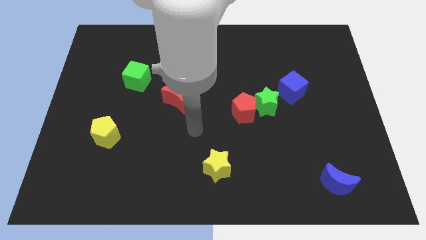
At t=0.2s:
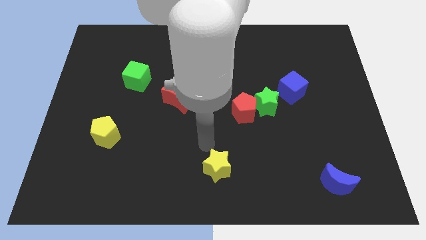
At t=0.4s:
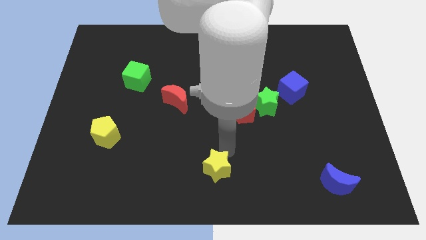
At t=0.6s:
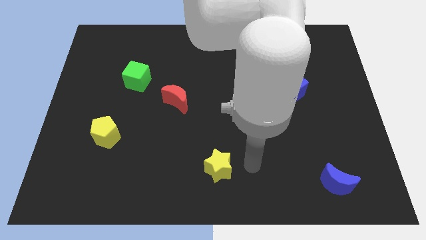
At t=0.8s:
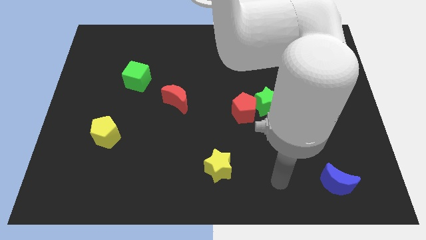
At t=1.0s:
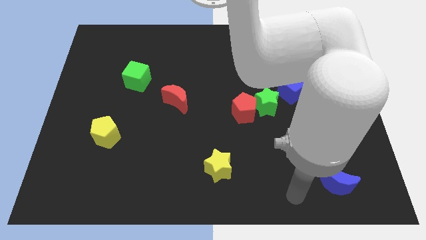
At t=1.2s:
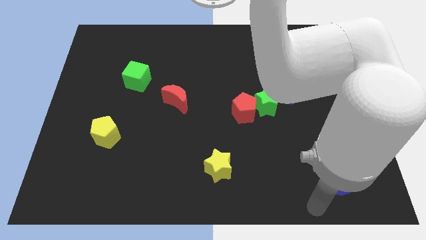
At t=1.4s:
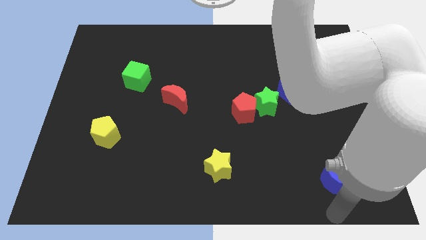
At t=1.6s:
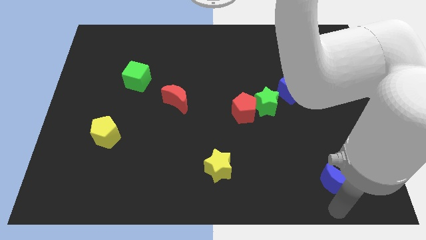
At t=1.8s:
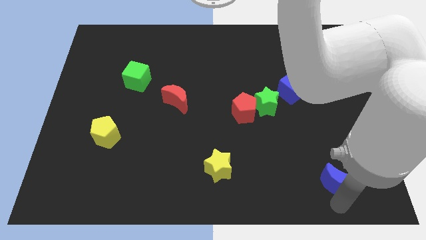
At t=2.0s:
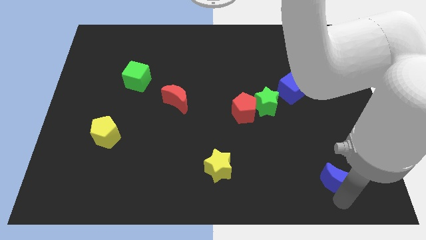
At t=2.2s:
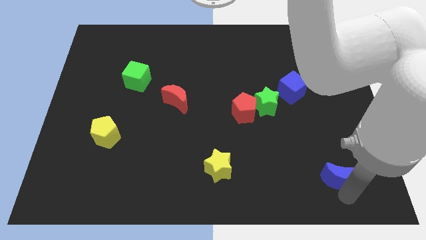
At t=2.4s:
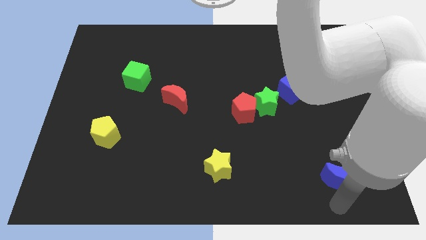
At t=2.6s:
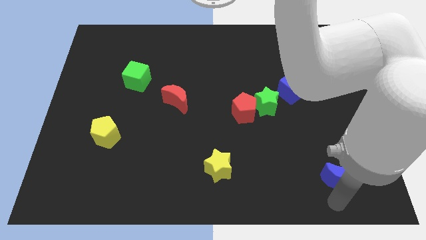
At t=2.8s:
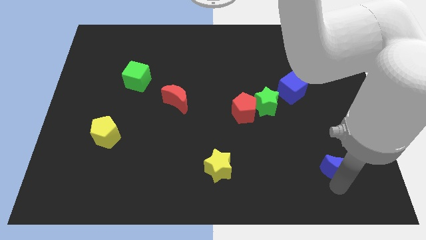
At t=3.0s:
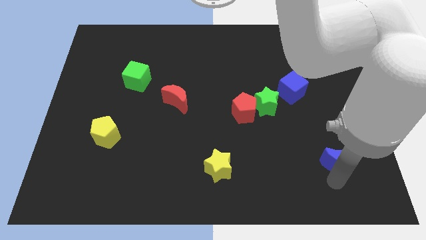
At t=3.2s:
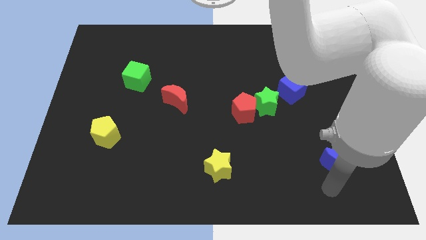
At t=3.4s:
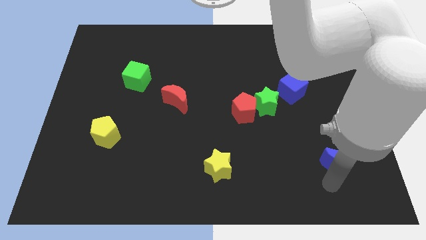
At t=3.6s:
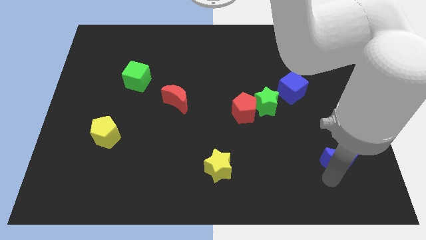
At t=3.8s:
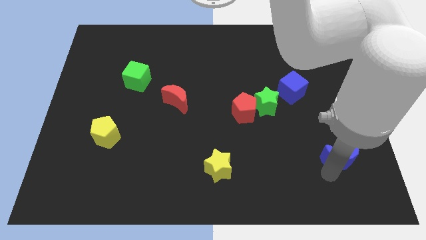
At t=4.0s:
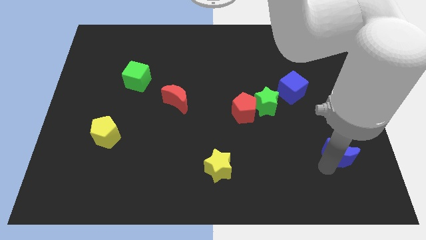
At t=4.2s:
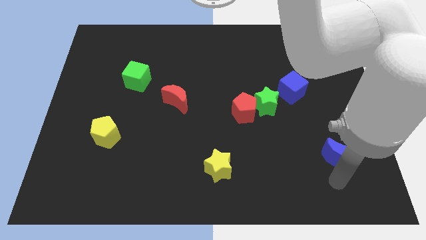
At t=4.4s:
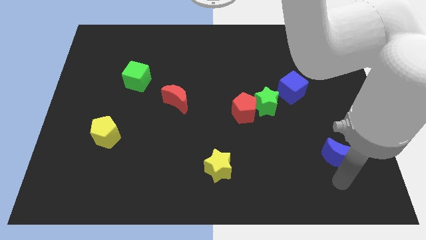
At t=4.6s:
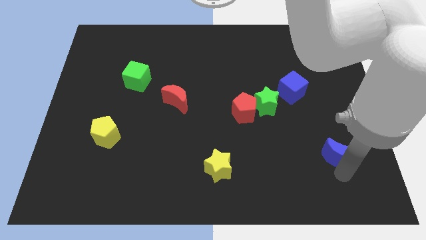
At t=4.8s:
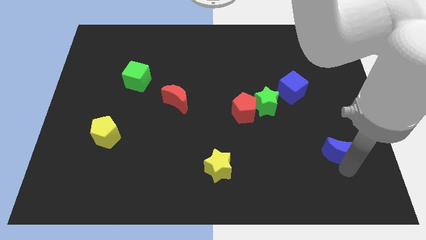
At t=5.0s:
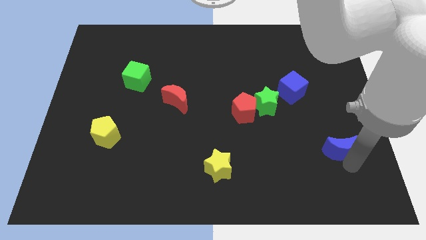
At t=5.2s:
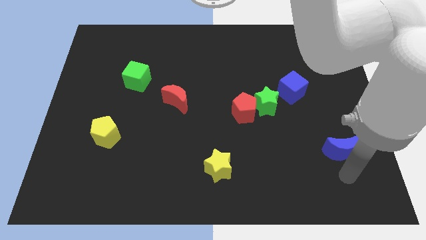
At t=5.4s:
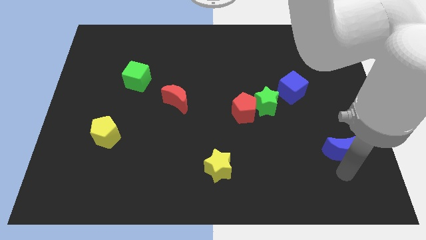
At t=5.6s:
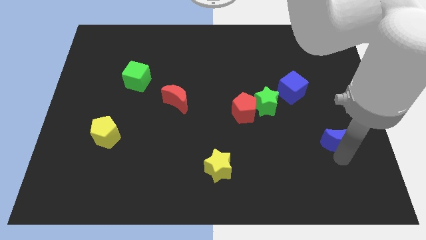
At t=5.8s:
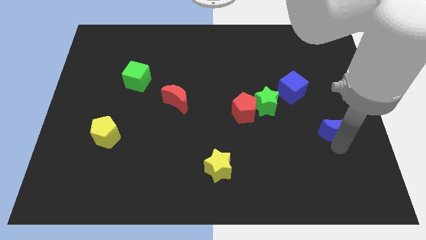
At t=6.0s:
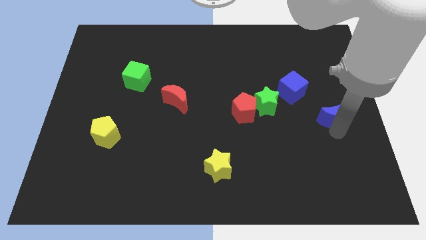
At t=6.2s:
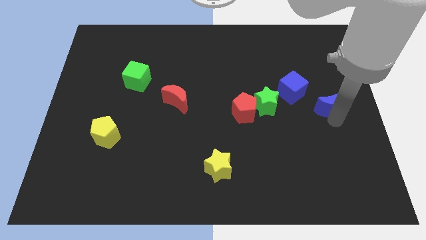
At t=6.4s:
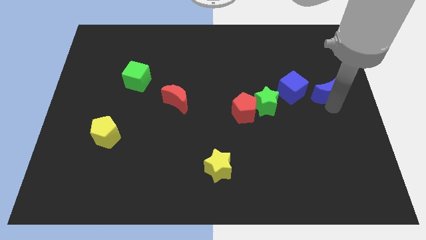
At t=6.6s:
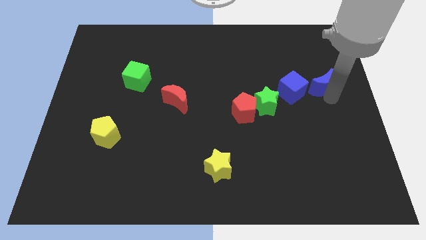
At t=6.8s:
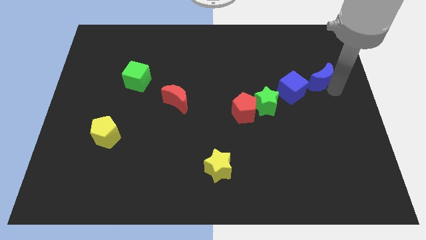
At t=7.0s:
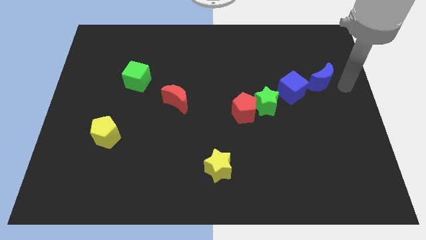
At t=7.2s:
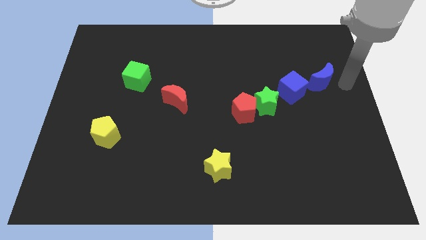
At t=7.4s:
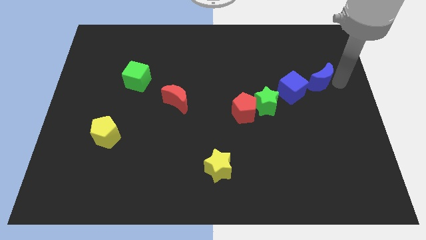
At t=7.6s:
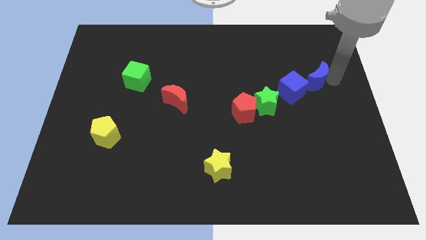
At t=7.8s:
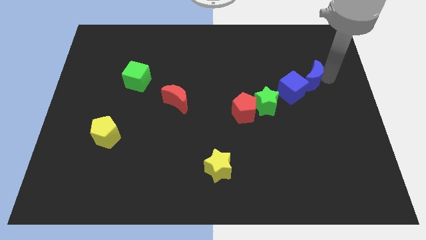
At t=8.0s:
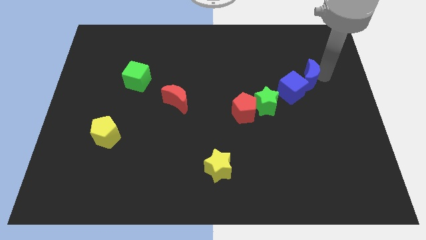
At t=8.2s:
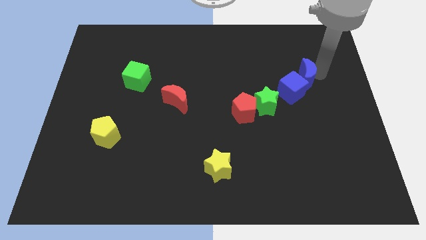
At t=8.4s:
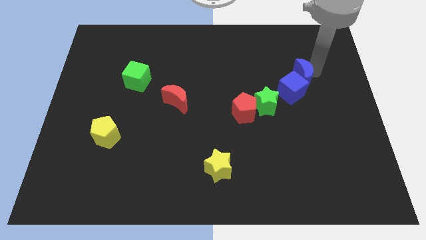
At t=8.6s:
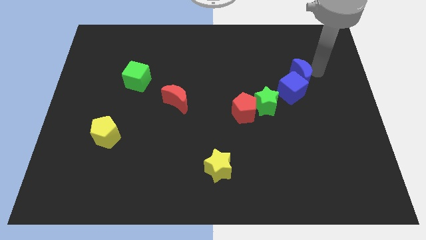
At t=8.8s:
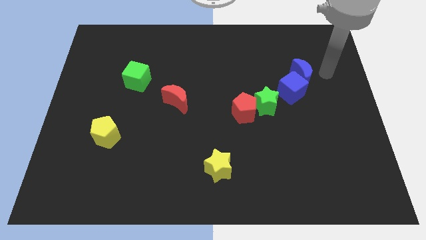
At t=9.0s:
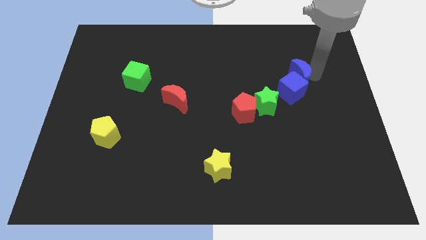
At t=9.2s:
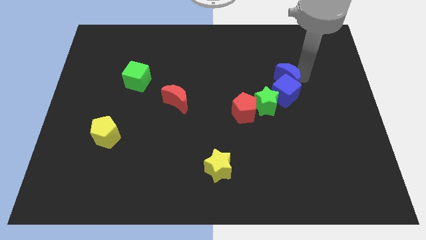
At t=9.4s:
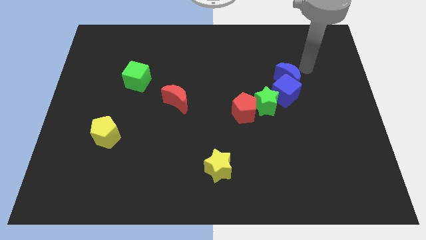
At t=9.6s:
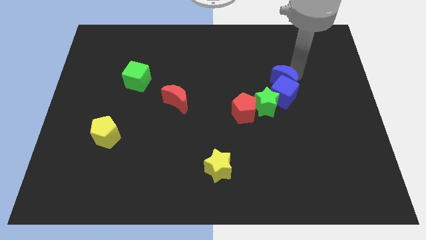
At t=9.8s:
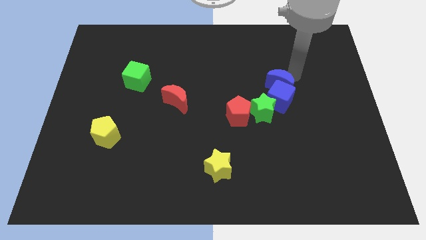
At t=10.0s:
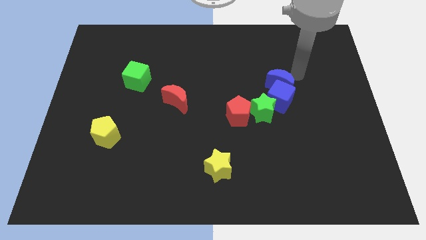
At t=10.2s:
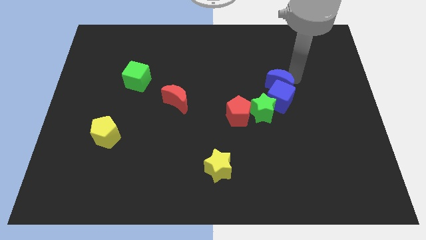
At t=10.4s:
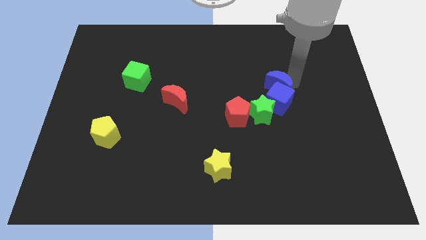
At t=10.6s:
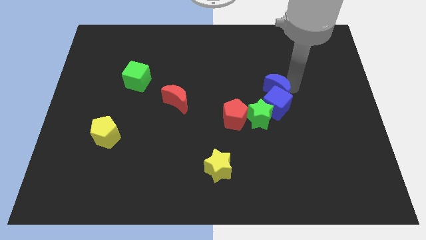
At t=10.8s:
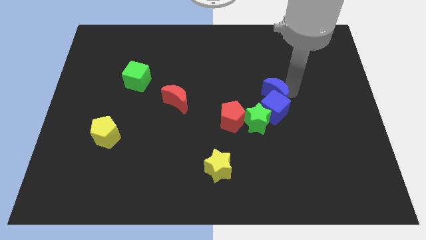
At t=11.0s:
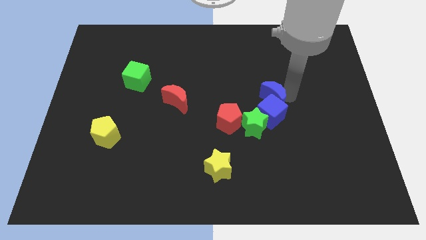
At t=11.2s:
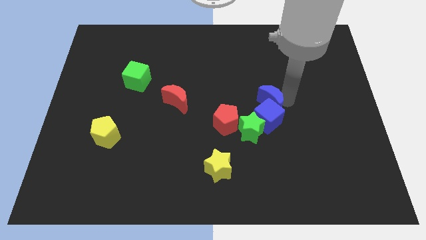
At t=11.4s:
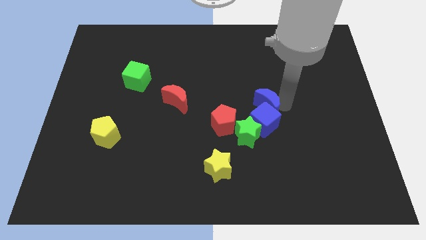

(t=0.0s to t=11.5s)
move the blue moon to the top right side of the red pentagon
